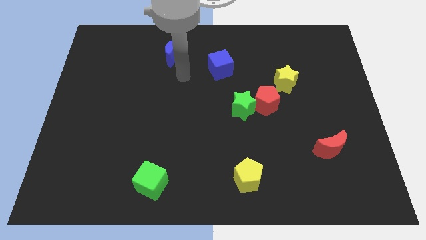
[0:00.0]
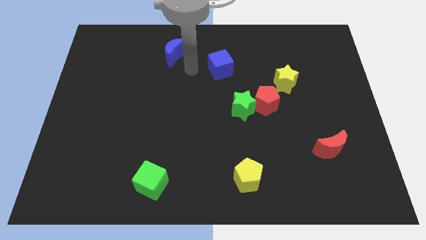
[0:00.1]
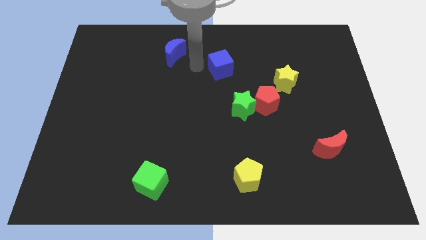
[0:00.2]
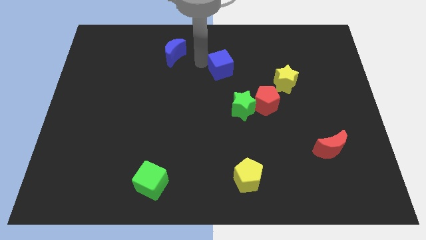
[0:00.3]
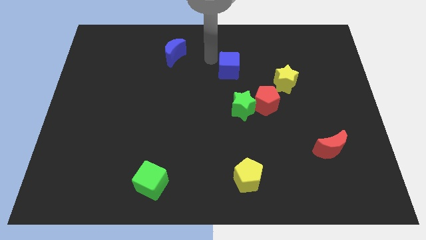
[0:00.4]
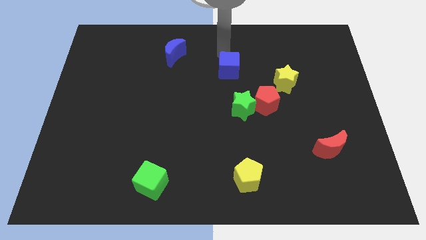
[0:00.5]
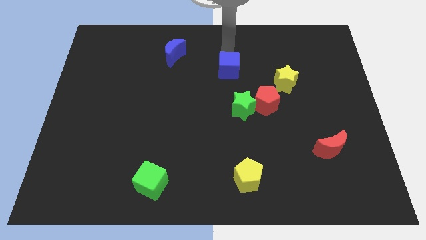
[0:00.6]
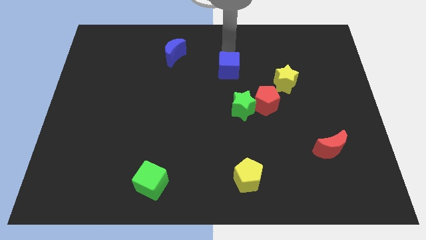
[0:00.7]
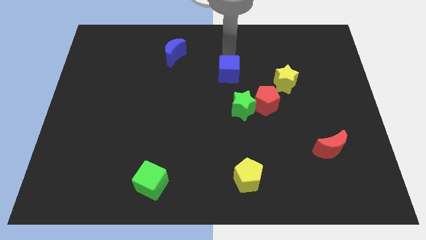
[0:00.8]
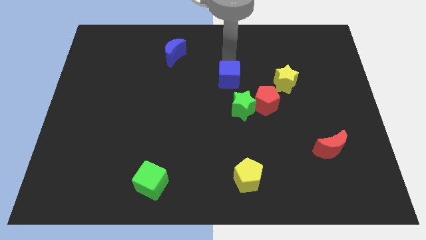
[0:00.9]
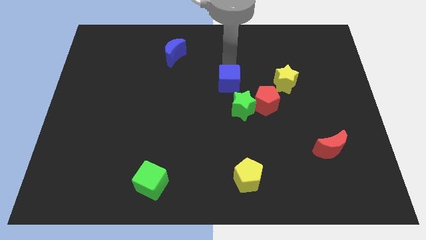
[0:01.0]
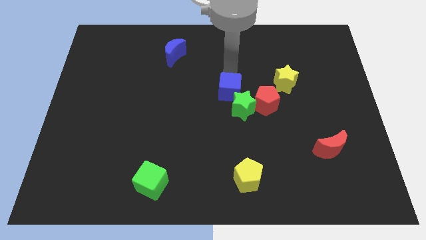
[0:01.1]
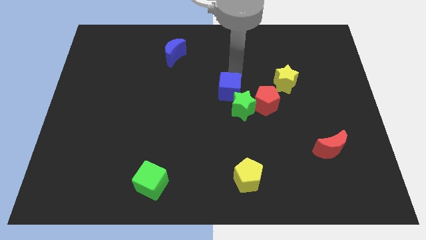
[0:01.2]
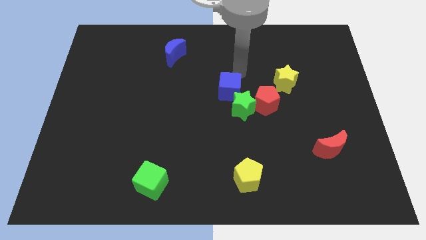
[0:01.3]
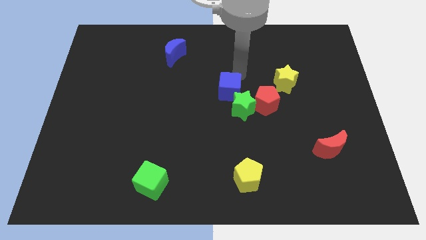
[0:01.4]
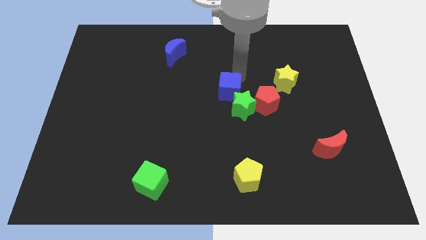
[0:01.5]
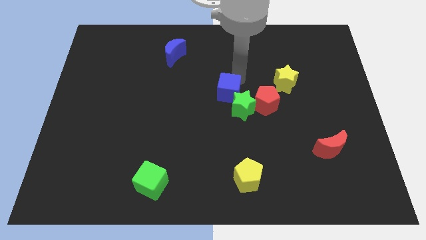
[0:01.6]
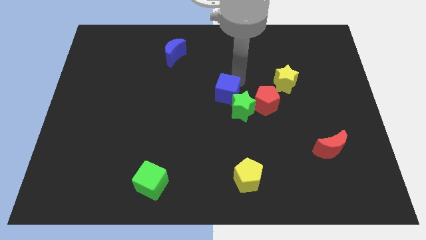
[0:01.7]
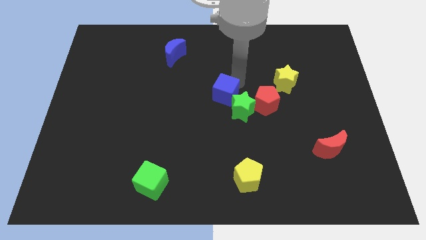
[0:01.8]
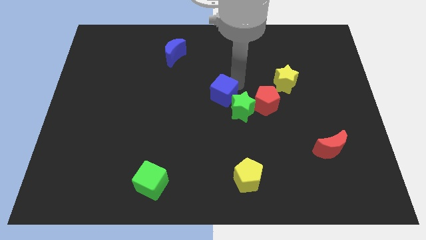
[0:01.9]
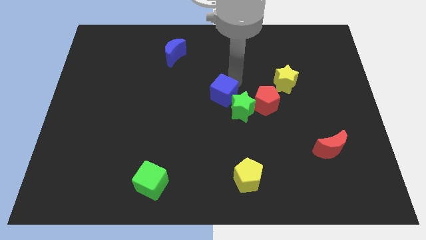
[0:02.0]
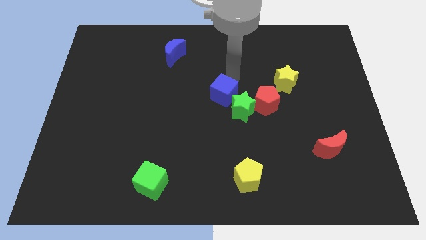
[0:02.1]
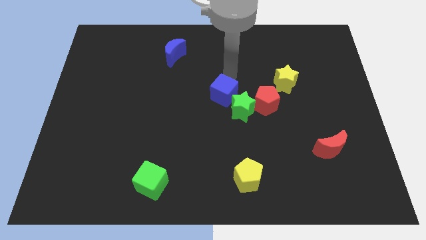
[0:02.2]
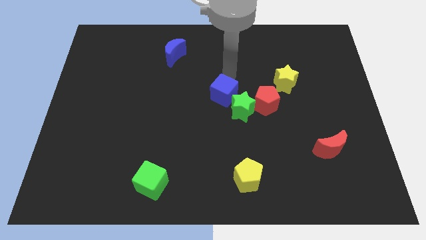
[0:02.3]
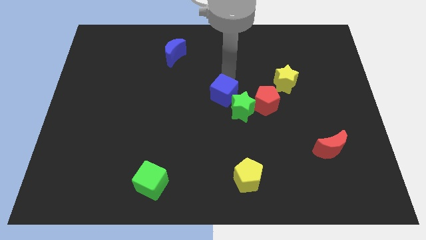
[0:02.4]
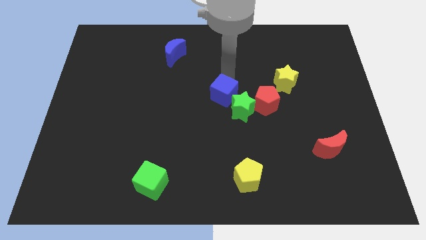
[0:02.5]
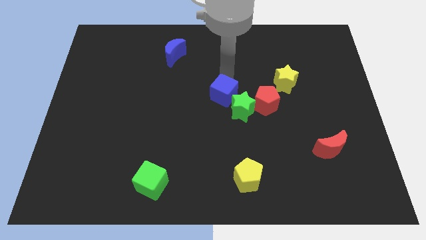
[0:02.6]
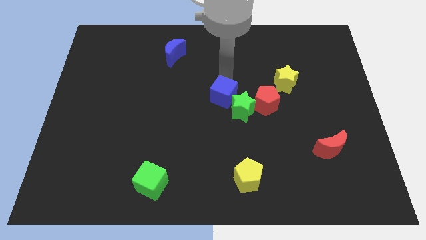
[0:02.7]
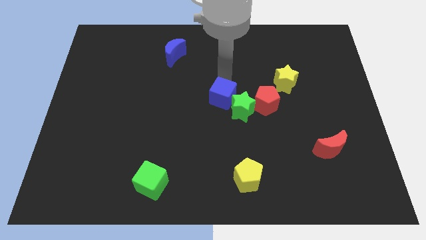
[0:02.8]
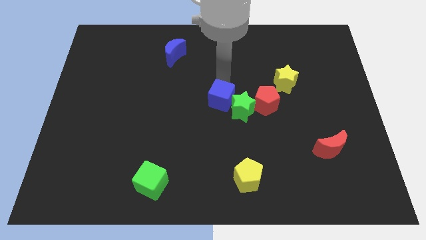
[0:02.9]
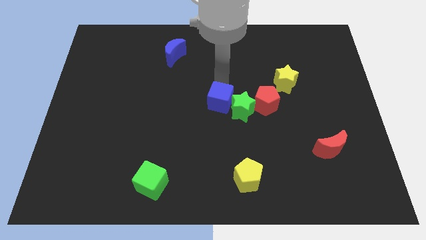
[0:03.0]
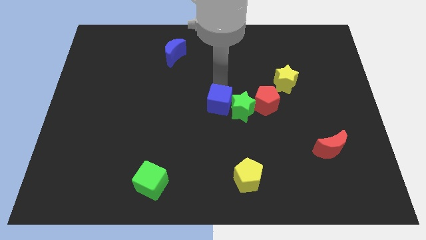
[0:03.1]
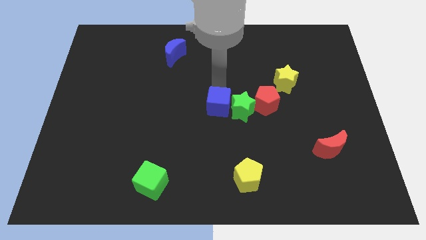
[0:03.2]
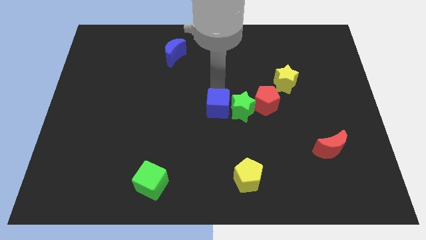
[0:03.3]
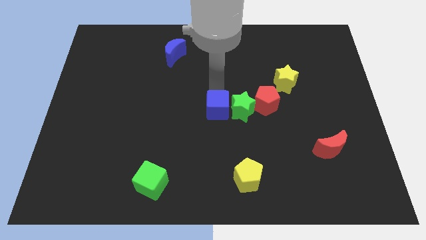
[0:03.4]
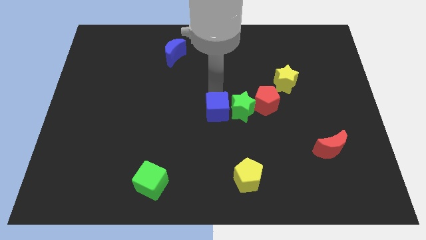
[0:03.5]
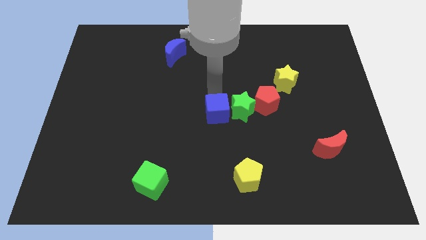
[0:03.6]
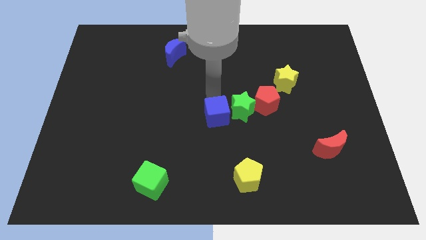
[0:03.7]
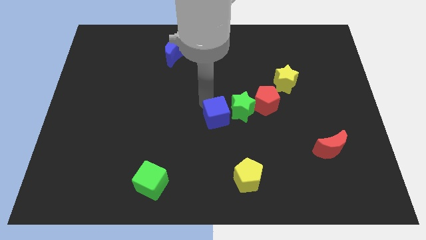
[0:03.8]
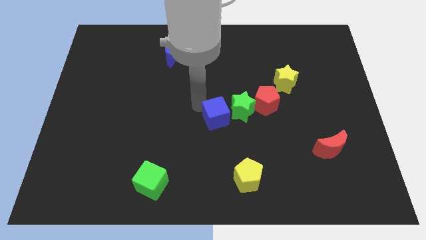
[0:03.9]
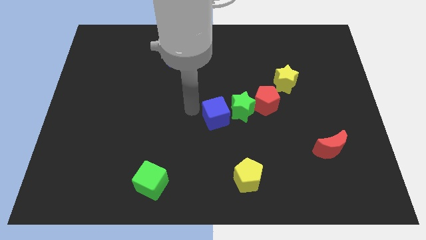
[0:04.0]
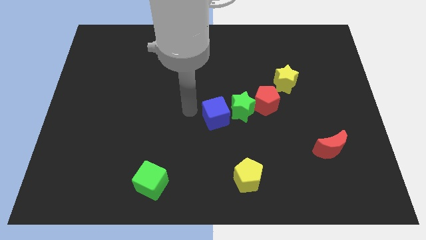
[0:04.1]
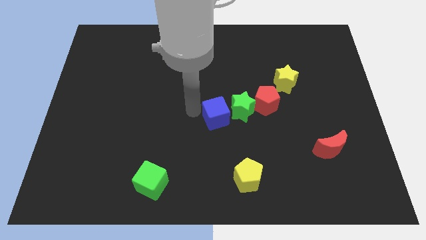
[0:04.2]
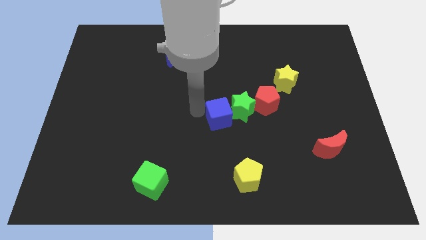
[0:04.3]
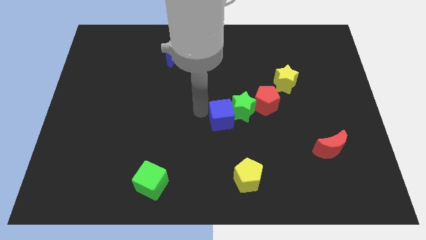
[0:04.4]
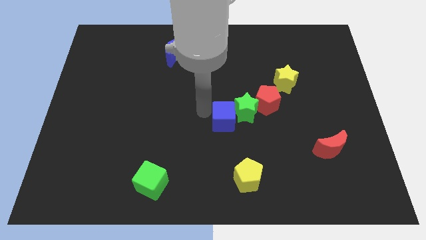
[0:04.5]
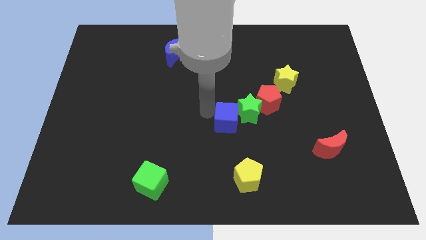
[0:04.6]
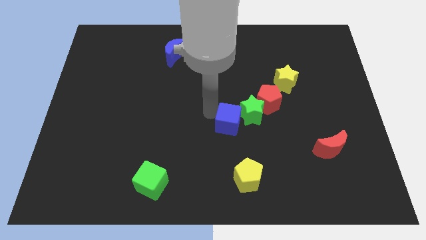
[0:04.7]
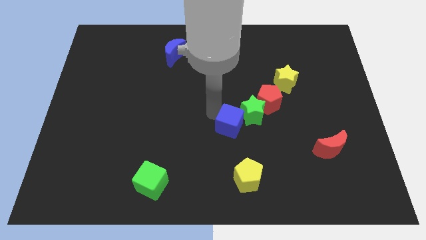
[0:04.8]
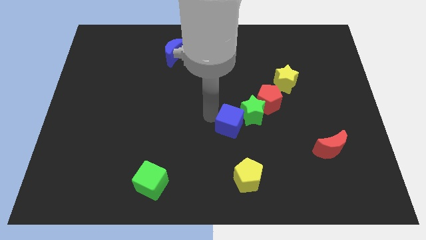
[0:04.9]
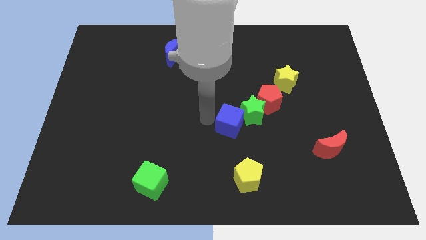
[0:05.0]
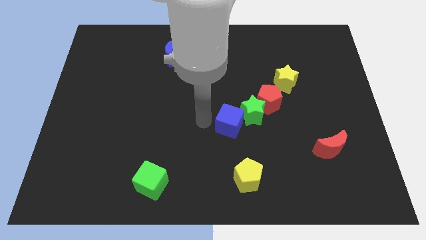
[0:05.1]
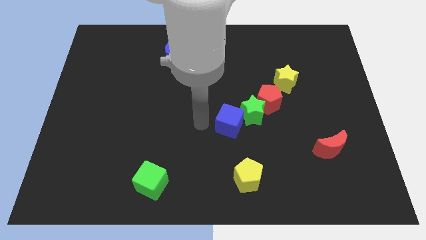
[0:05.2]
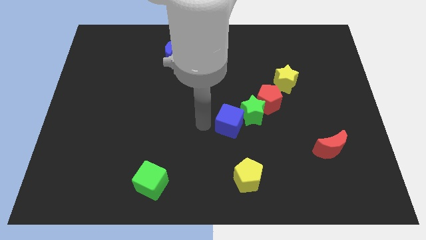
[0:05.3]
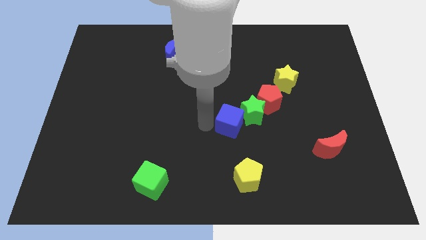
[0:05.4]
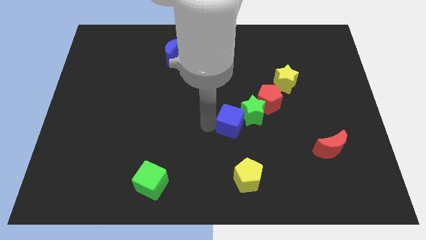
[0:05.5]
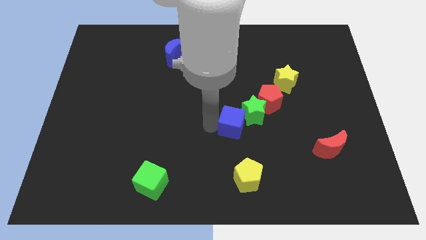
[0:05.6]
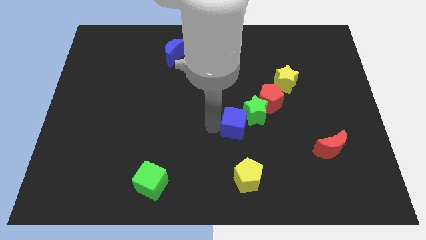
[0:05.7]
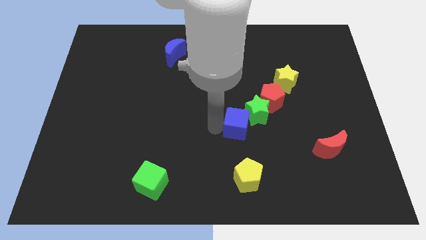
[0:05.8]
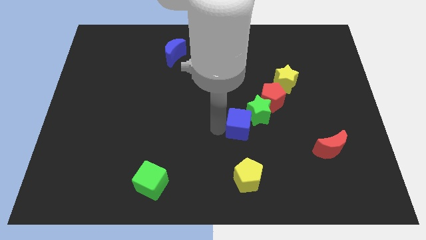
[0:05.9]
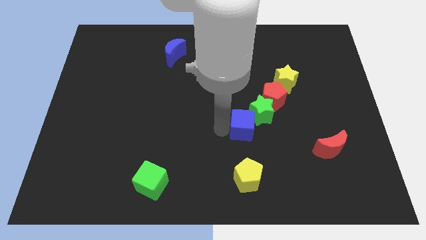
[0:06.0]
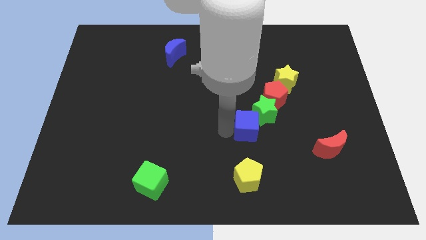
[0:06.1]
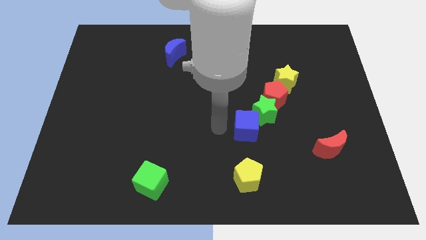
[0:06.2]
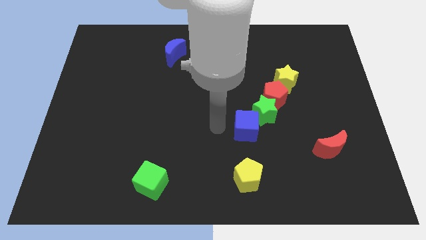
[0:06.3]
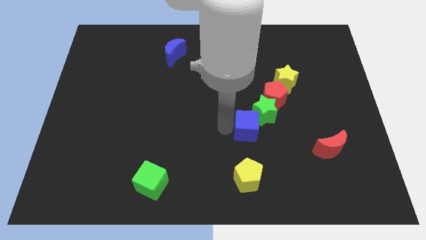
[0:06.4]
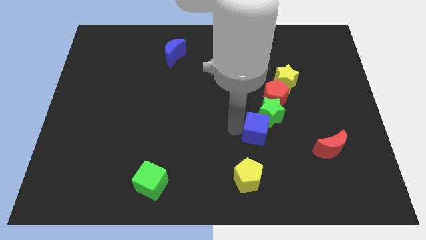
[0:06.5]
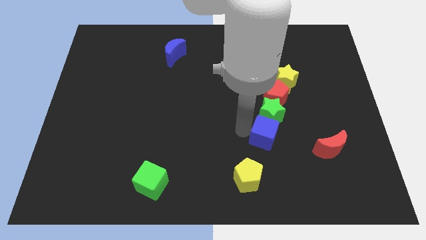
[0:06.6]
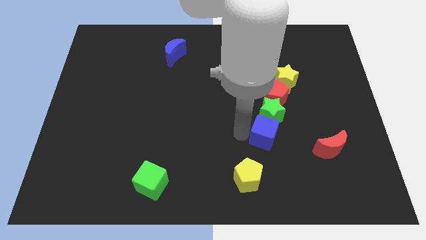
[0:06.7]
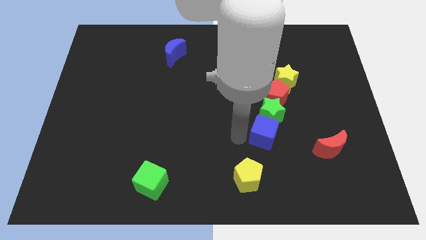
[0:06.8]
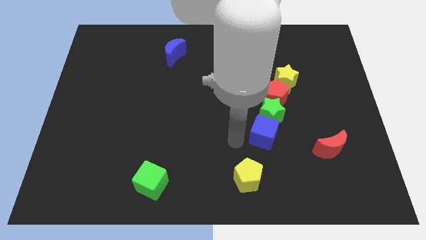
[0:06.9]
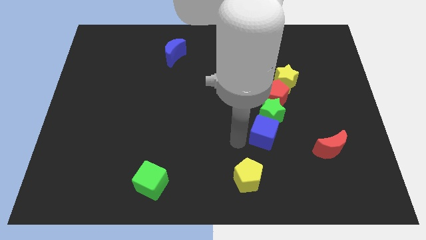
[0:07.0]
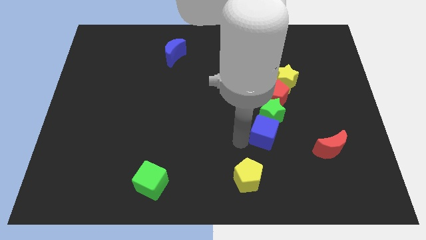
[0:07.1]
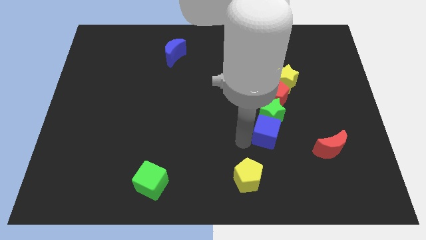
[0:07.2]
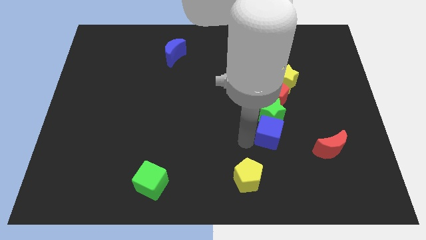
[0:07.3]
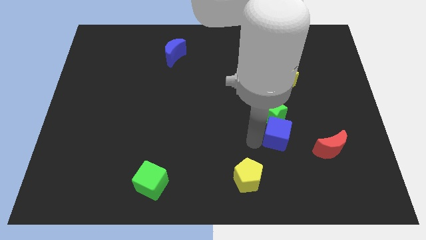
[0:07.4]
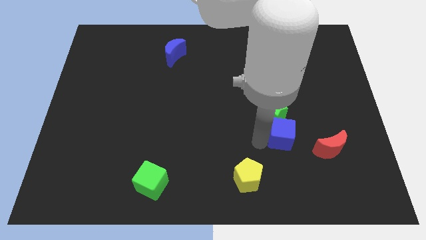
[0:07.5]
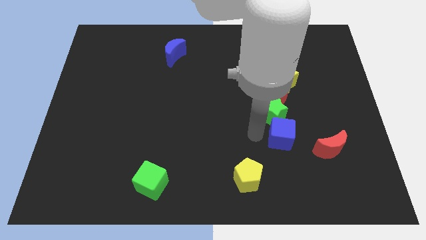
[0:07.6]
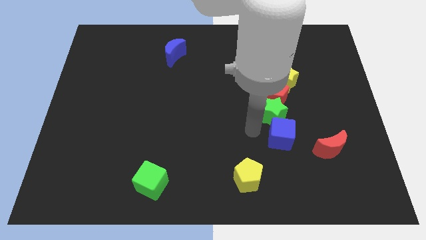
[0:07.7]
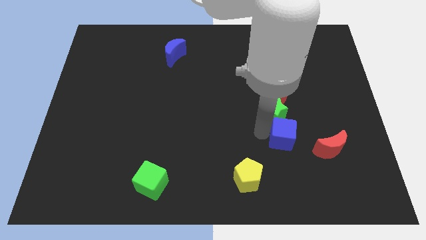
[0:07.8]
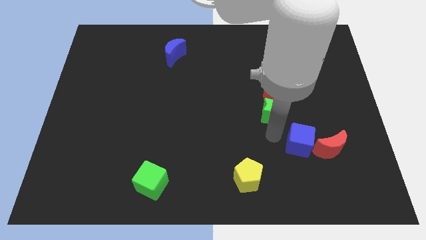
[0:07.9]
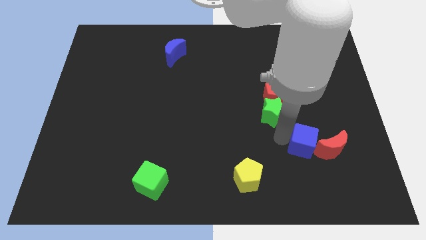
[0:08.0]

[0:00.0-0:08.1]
move the blue cube next to the red moon
